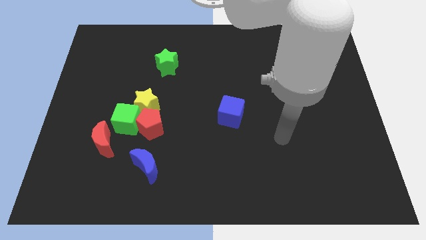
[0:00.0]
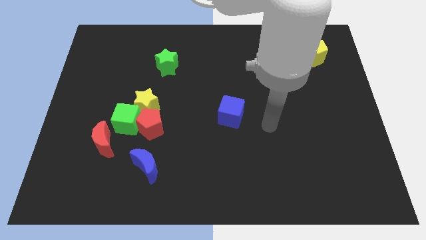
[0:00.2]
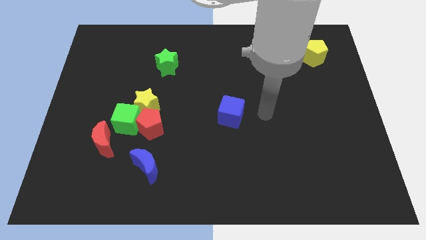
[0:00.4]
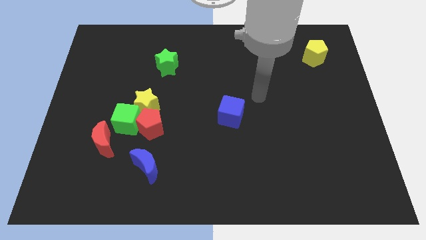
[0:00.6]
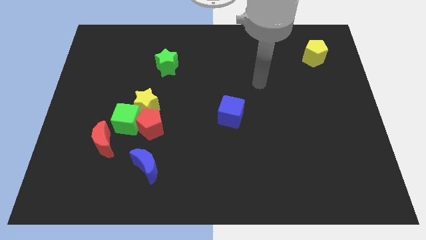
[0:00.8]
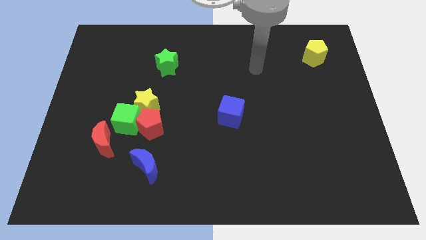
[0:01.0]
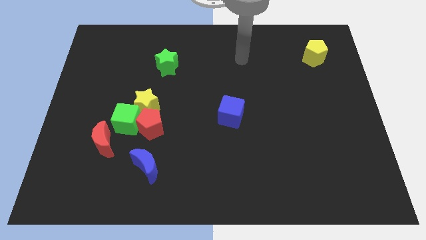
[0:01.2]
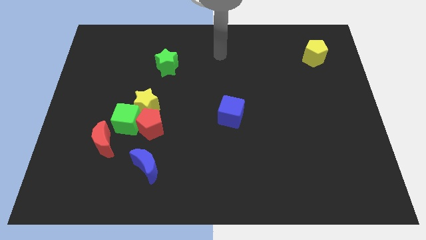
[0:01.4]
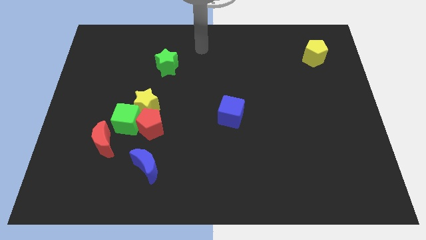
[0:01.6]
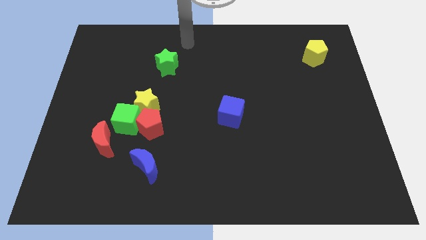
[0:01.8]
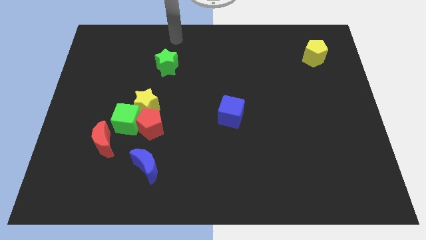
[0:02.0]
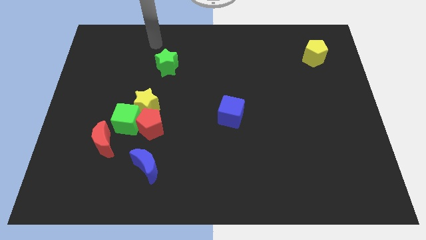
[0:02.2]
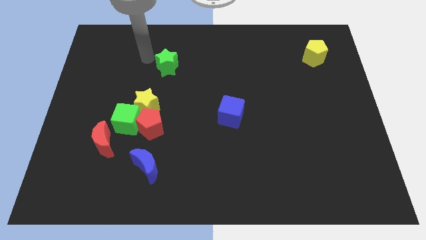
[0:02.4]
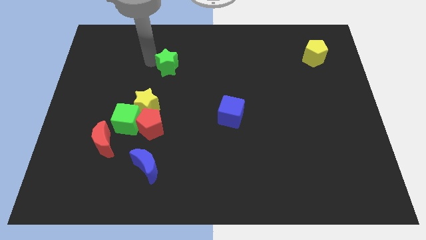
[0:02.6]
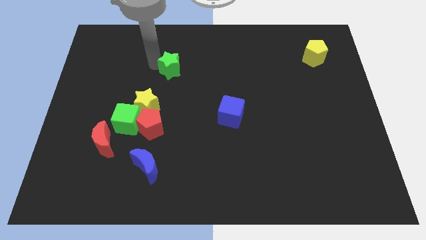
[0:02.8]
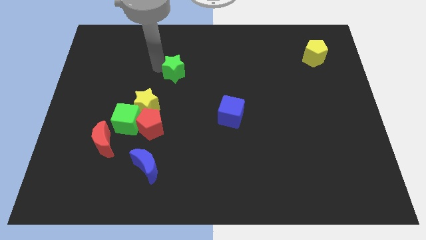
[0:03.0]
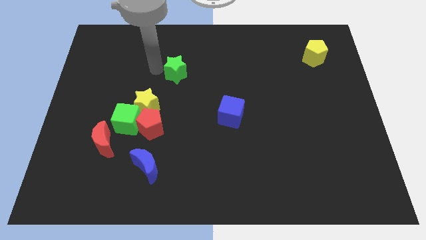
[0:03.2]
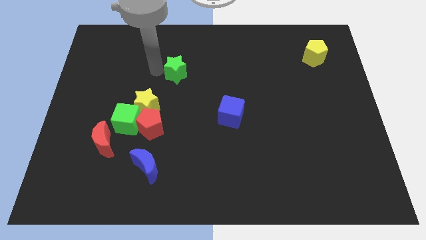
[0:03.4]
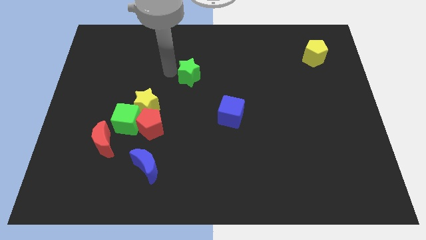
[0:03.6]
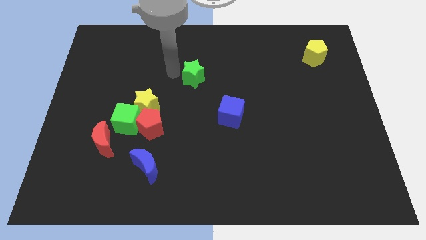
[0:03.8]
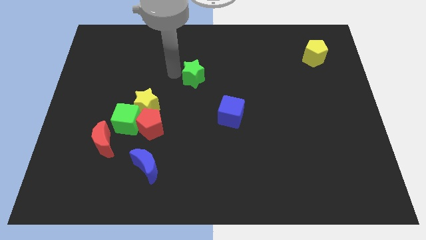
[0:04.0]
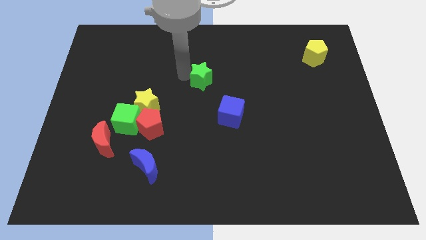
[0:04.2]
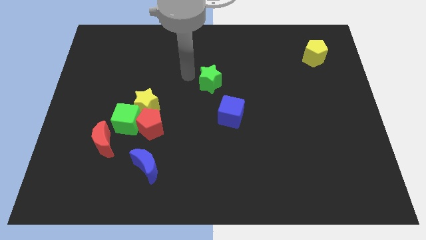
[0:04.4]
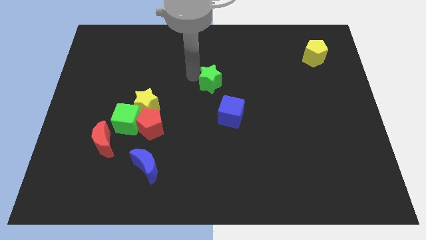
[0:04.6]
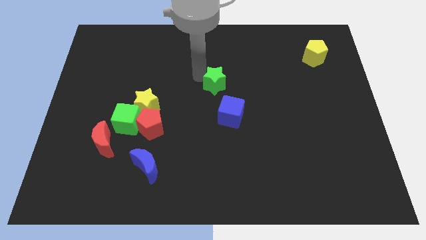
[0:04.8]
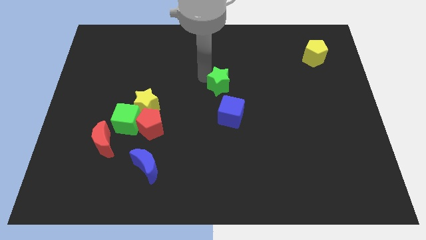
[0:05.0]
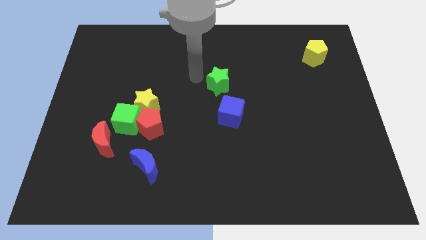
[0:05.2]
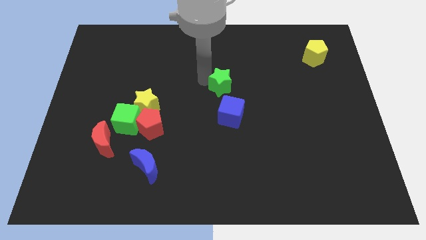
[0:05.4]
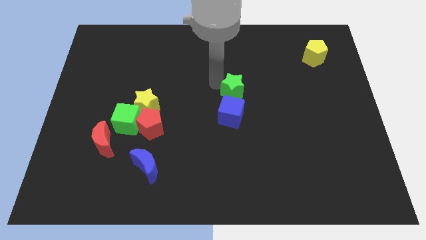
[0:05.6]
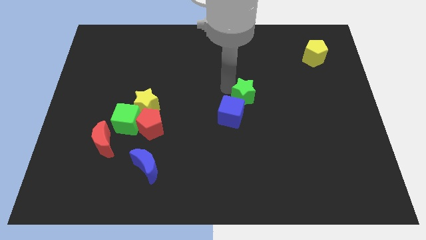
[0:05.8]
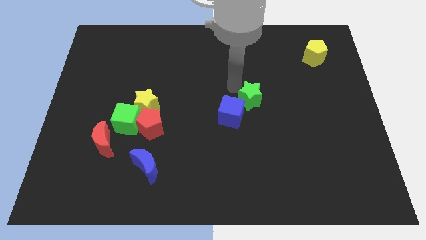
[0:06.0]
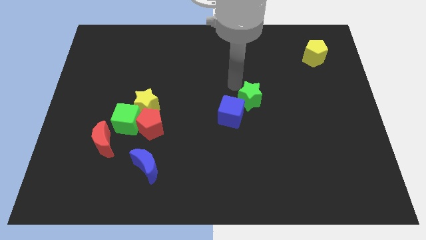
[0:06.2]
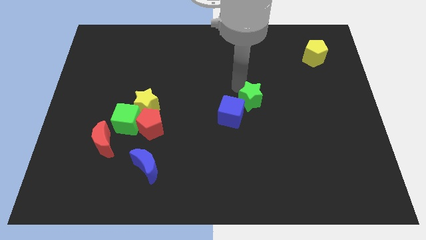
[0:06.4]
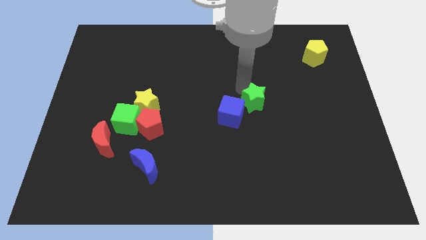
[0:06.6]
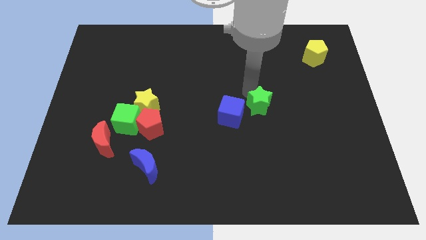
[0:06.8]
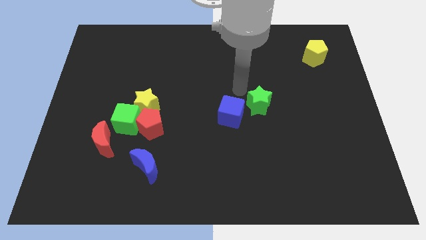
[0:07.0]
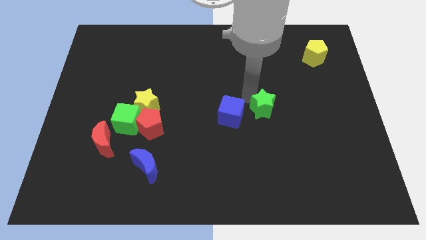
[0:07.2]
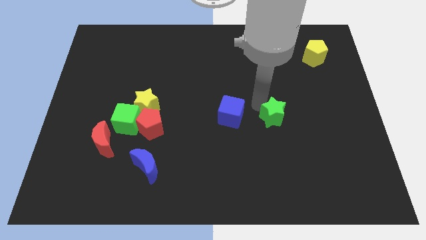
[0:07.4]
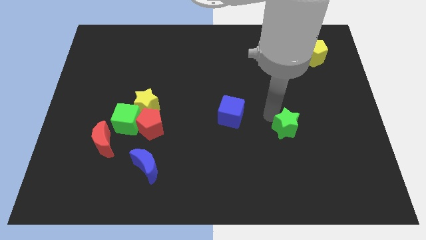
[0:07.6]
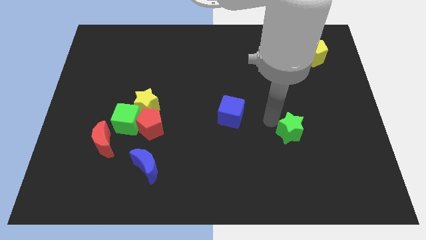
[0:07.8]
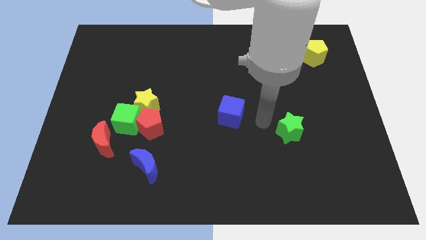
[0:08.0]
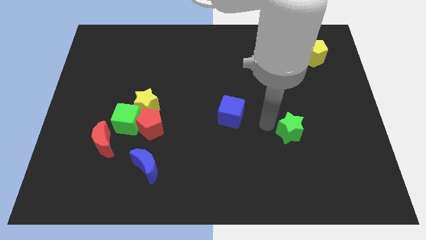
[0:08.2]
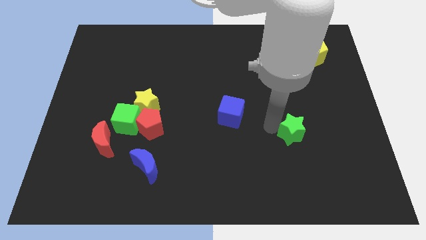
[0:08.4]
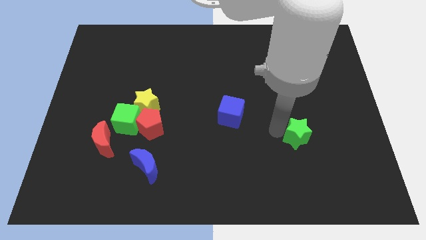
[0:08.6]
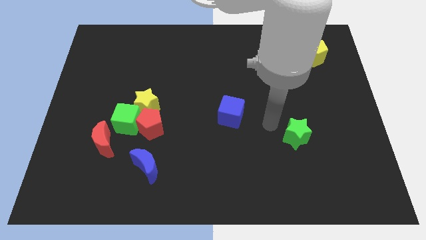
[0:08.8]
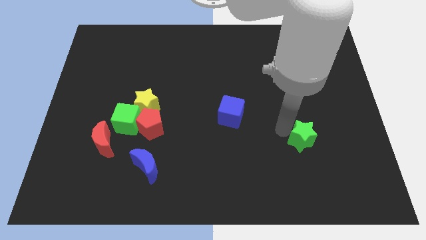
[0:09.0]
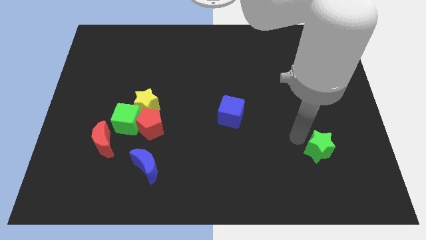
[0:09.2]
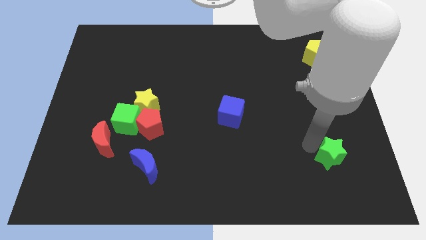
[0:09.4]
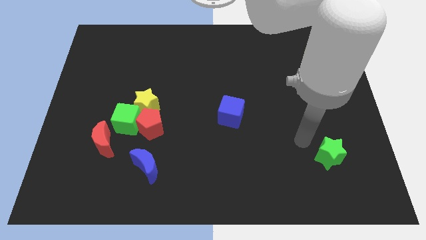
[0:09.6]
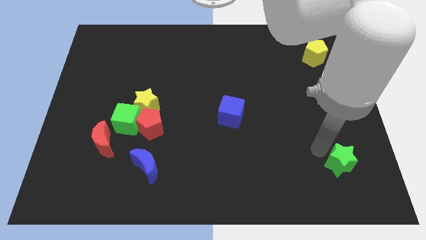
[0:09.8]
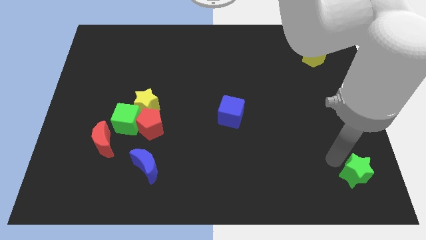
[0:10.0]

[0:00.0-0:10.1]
push the green star to the bottom right corner

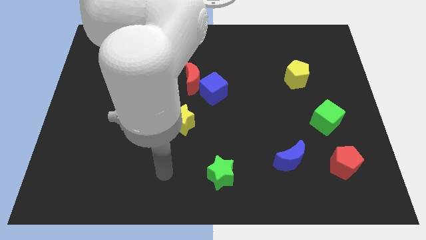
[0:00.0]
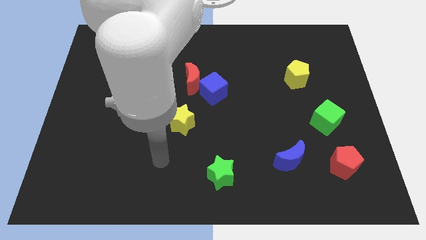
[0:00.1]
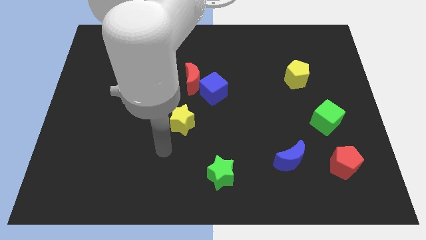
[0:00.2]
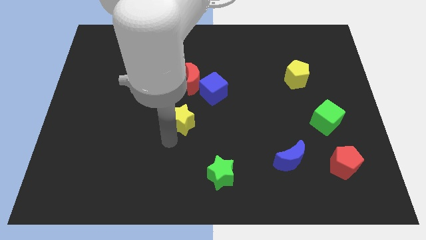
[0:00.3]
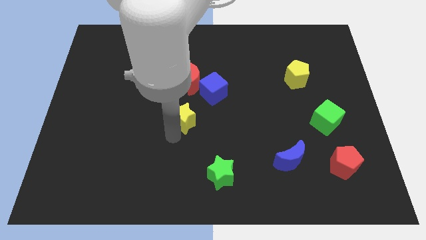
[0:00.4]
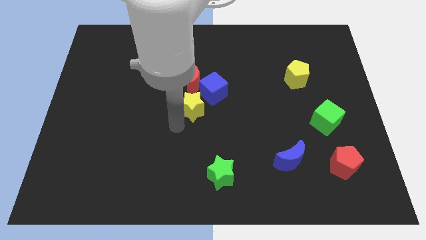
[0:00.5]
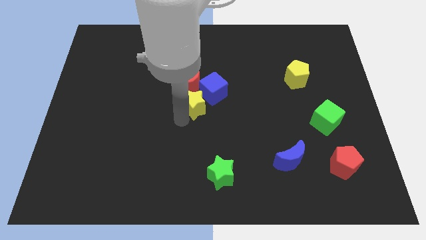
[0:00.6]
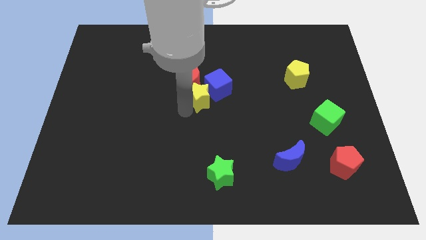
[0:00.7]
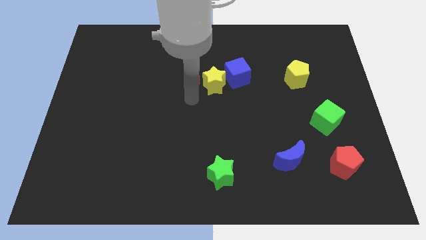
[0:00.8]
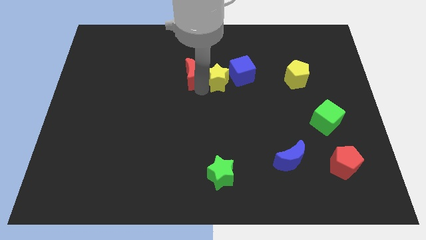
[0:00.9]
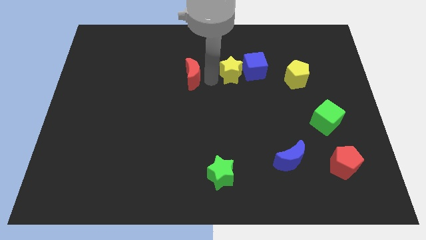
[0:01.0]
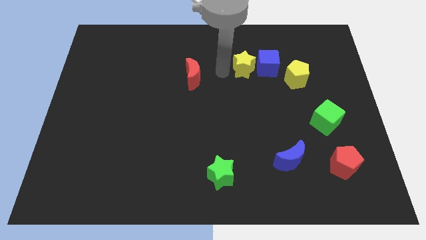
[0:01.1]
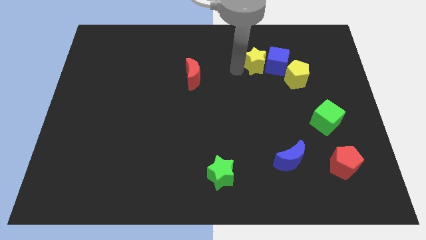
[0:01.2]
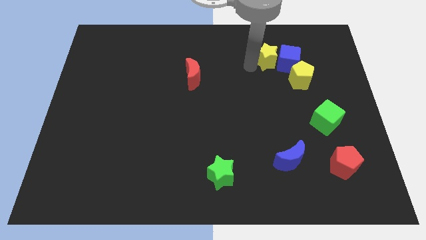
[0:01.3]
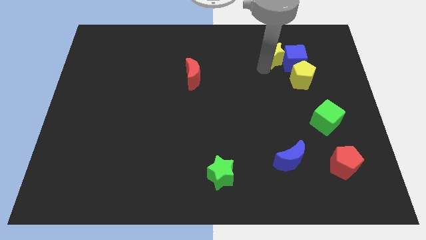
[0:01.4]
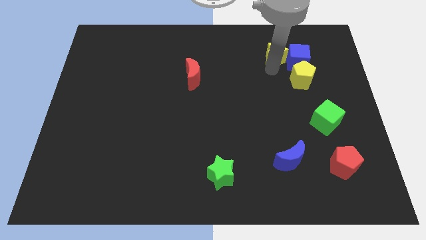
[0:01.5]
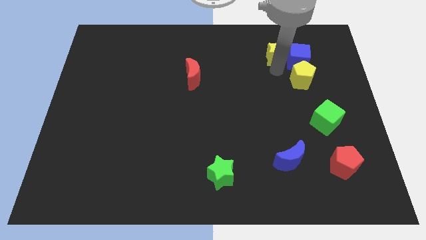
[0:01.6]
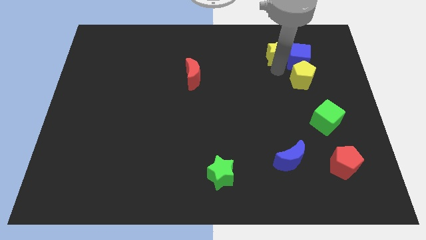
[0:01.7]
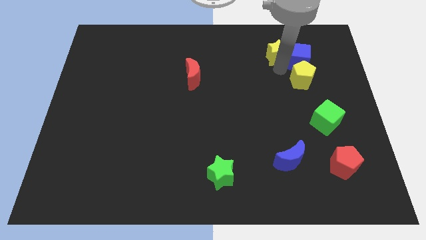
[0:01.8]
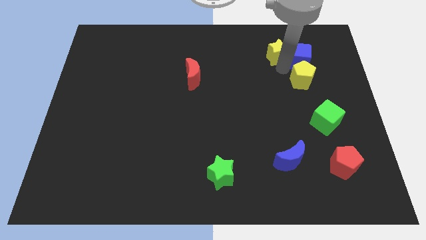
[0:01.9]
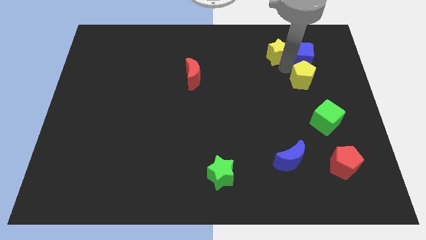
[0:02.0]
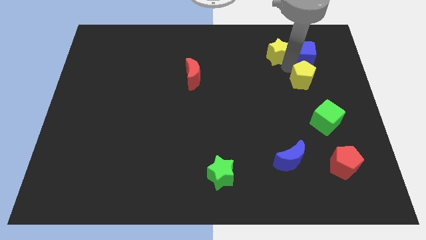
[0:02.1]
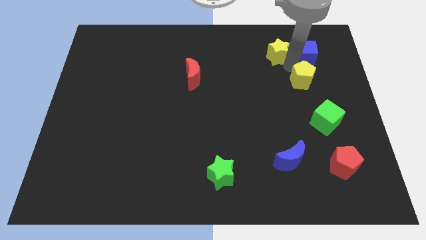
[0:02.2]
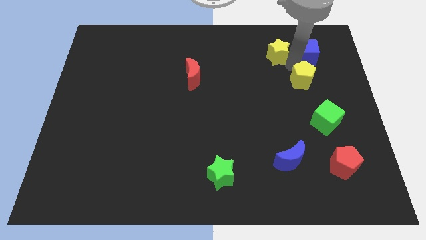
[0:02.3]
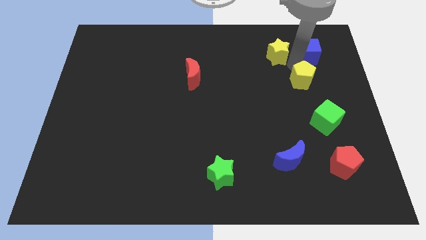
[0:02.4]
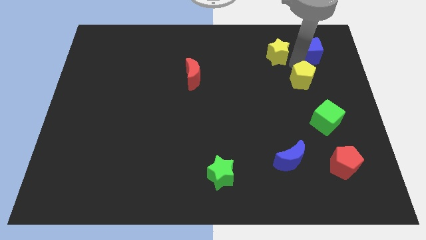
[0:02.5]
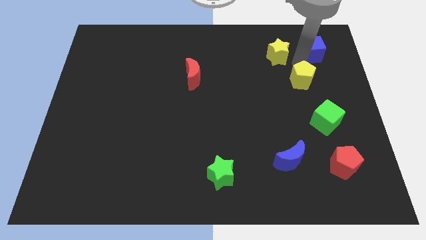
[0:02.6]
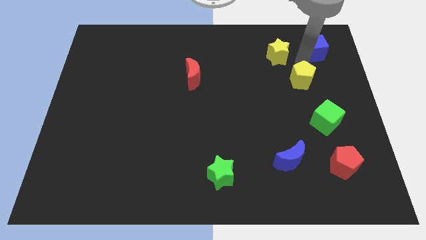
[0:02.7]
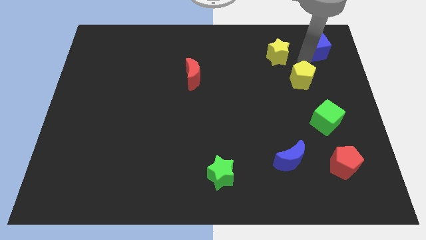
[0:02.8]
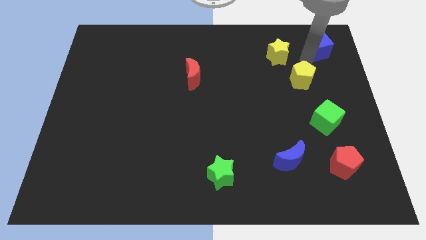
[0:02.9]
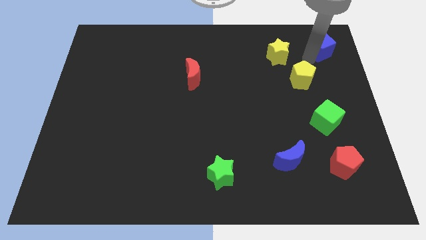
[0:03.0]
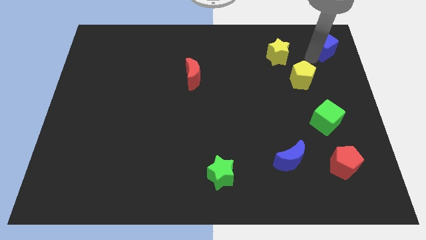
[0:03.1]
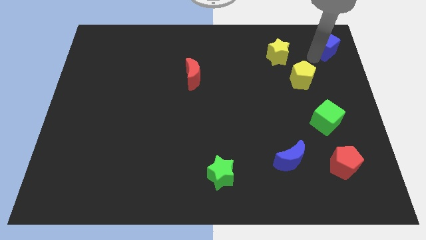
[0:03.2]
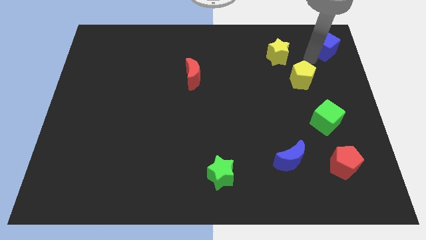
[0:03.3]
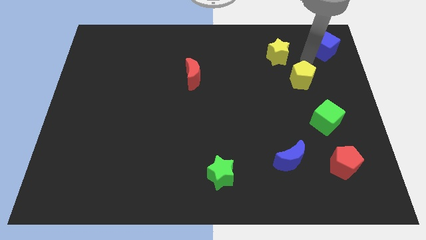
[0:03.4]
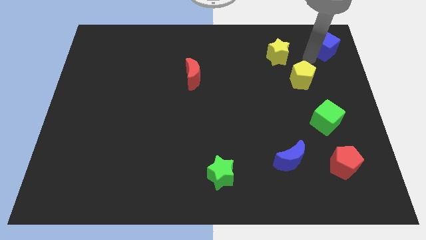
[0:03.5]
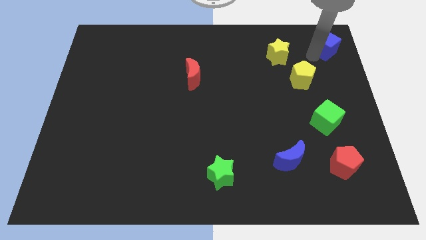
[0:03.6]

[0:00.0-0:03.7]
push the blue cube to the top right of the board
